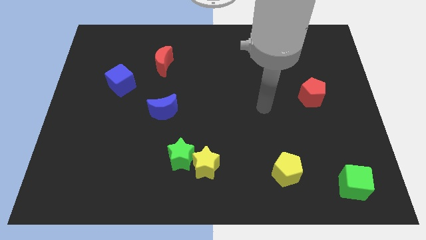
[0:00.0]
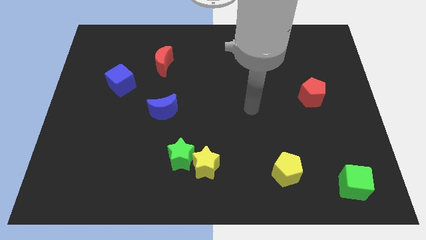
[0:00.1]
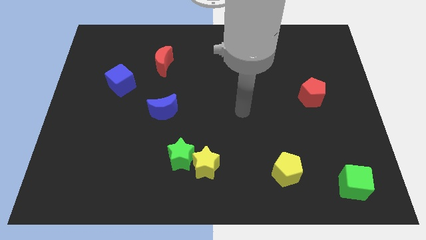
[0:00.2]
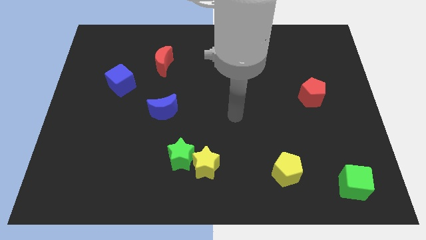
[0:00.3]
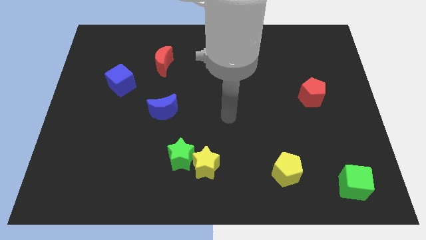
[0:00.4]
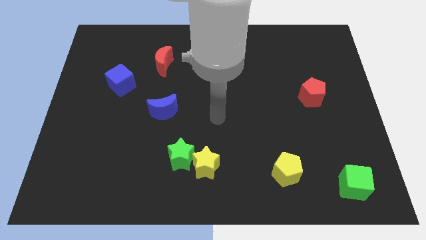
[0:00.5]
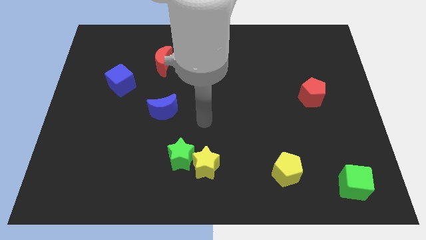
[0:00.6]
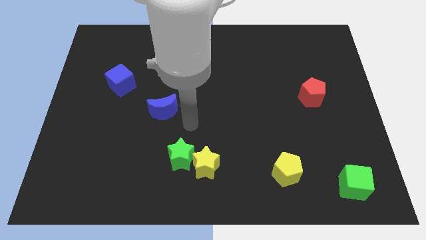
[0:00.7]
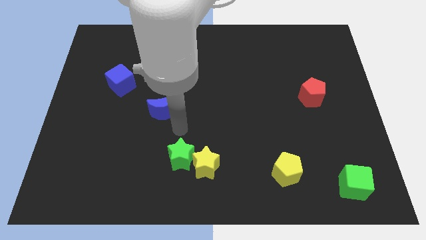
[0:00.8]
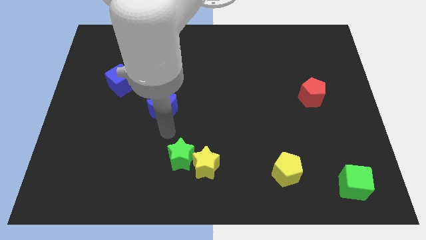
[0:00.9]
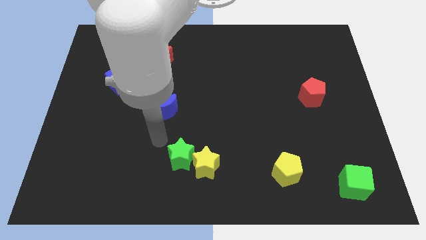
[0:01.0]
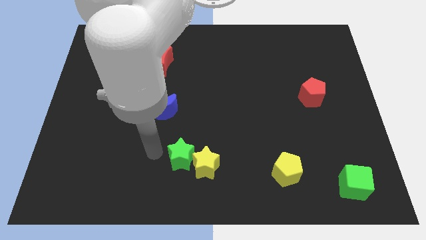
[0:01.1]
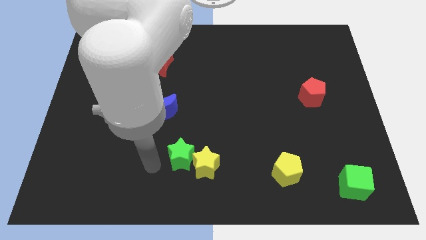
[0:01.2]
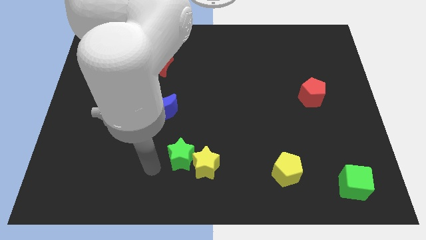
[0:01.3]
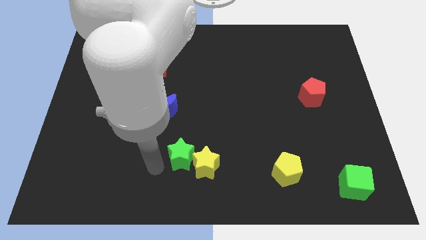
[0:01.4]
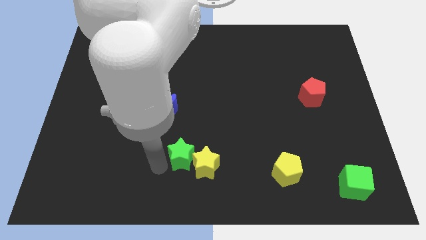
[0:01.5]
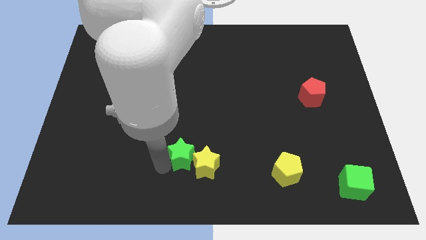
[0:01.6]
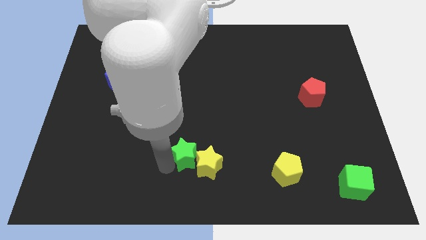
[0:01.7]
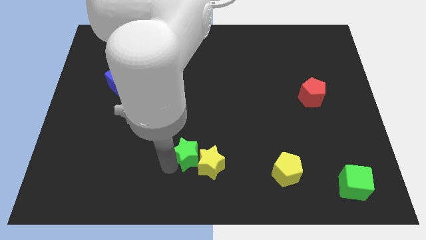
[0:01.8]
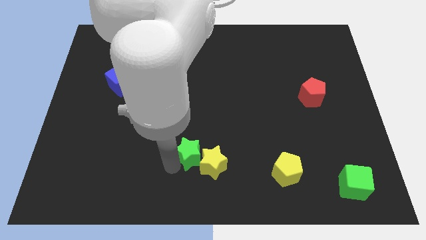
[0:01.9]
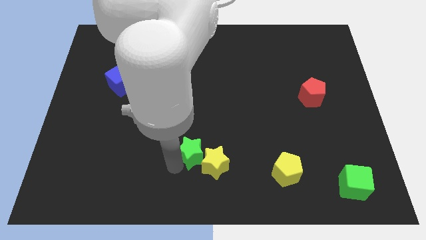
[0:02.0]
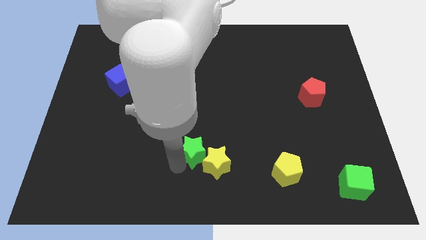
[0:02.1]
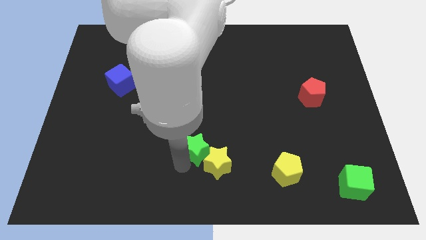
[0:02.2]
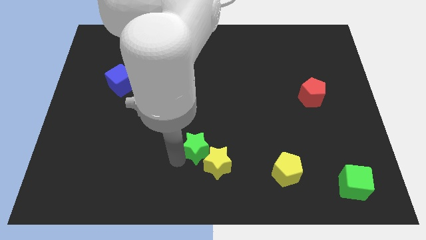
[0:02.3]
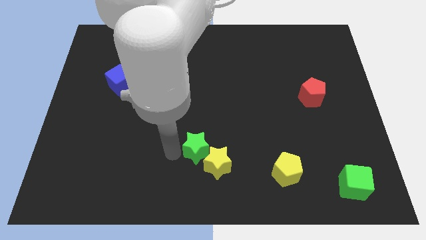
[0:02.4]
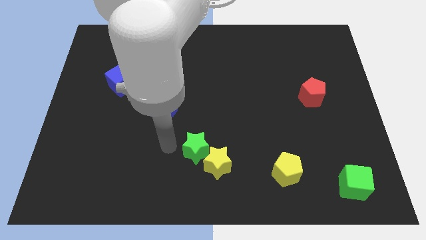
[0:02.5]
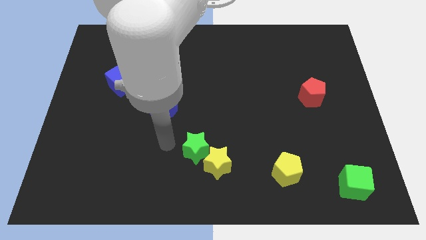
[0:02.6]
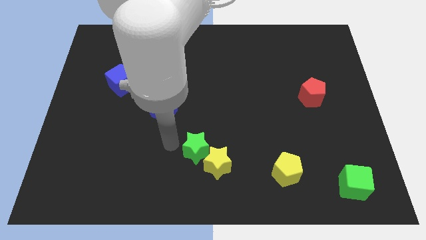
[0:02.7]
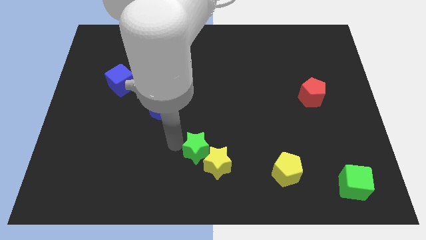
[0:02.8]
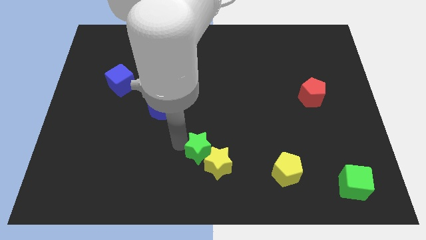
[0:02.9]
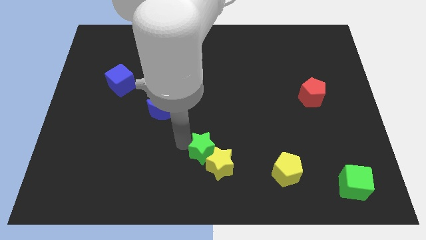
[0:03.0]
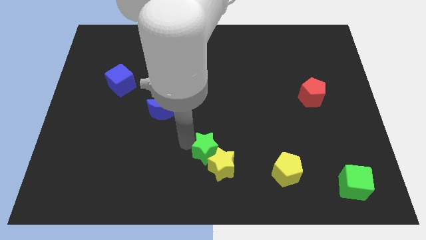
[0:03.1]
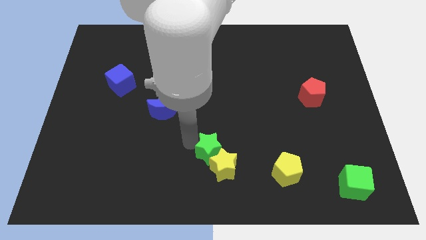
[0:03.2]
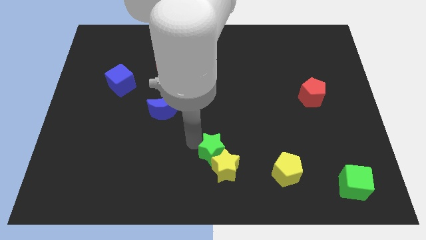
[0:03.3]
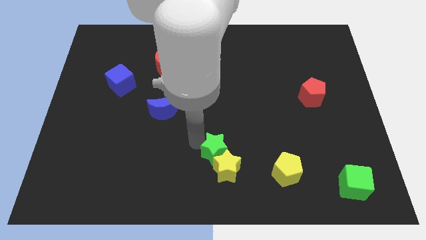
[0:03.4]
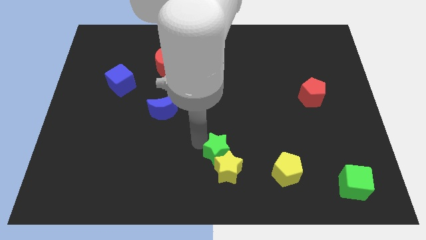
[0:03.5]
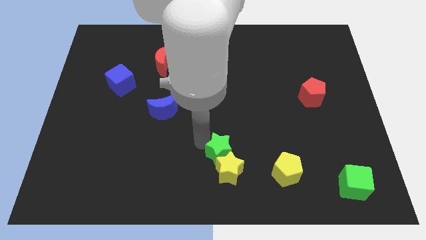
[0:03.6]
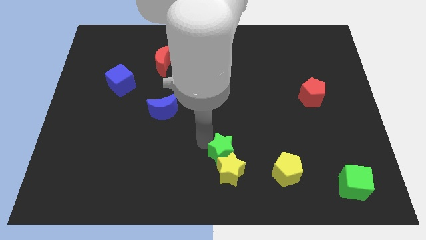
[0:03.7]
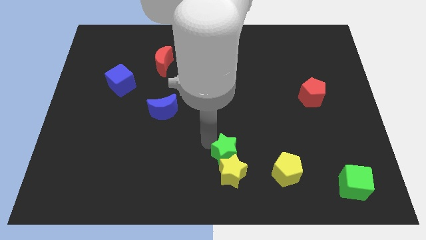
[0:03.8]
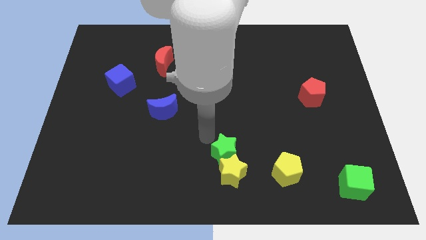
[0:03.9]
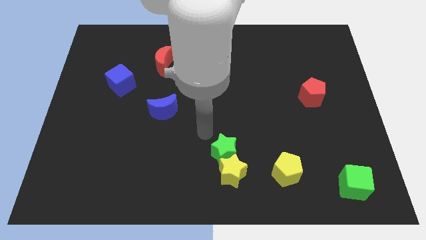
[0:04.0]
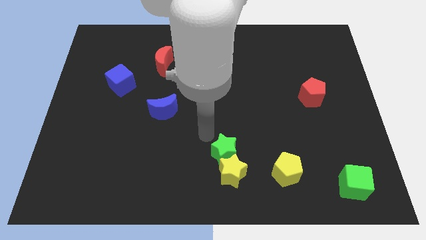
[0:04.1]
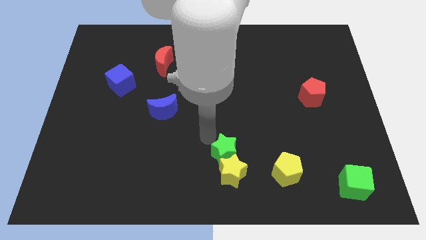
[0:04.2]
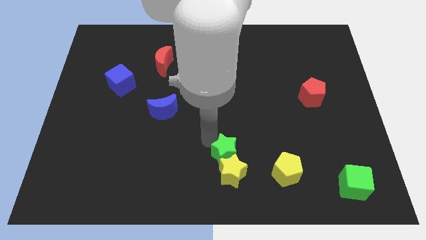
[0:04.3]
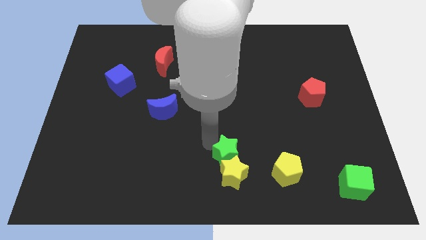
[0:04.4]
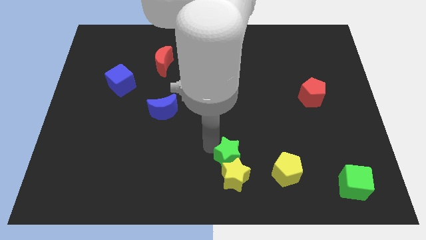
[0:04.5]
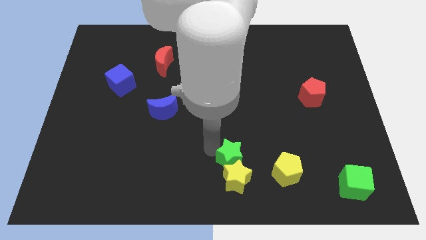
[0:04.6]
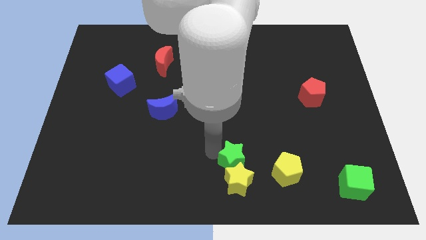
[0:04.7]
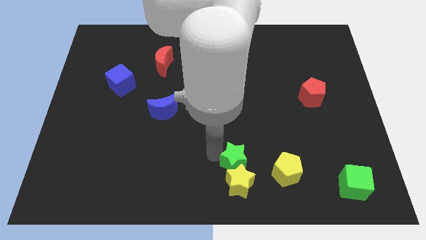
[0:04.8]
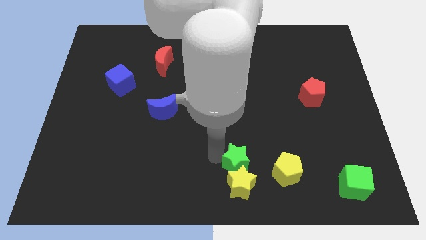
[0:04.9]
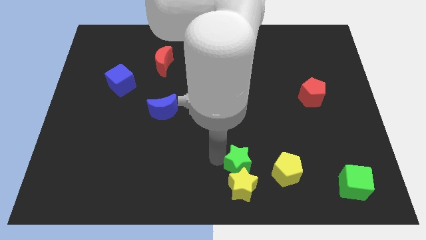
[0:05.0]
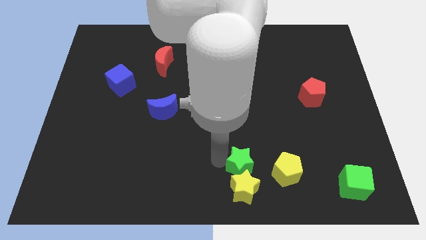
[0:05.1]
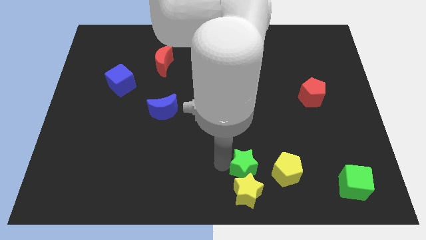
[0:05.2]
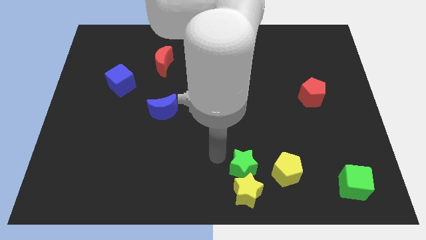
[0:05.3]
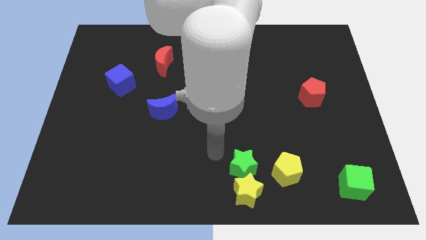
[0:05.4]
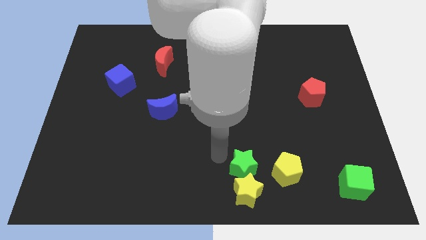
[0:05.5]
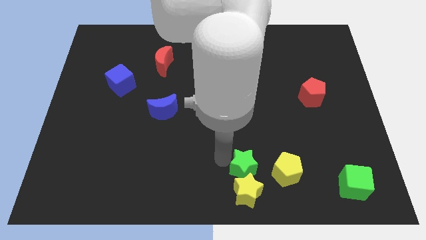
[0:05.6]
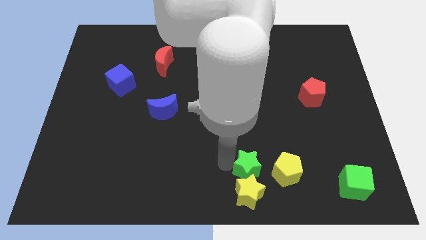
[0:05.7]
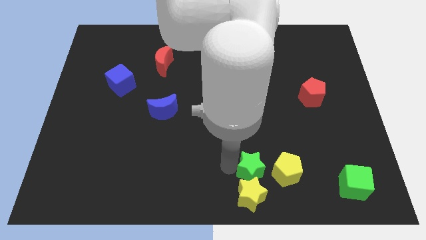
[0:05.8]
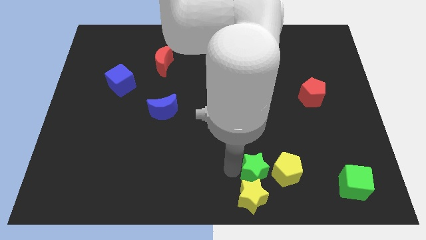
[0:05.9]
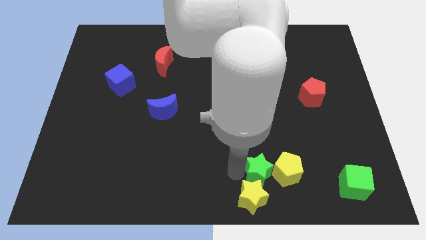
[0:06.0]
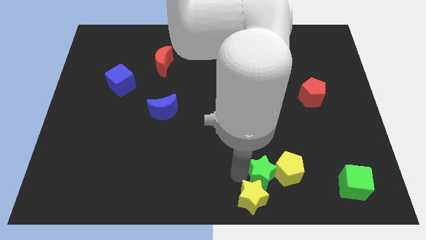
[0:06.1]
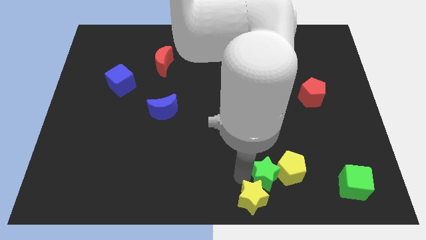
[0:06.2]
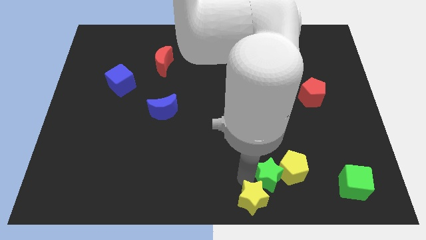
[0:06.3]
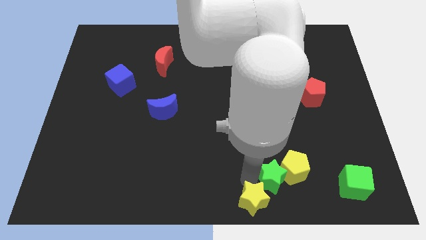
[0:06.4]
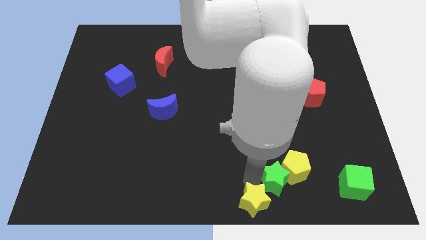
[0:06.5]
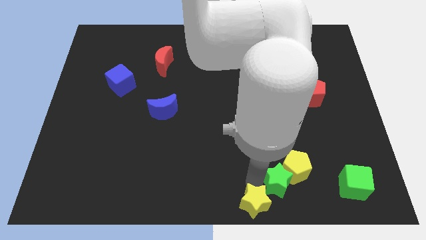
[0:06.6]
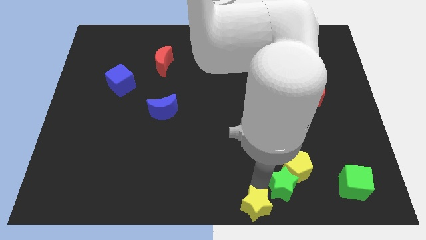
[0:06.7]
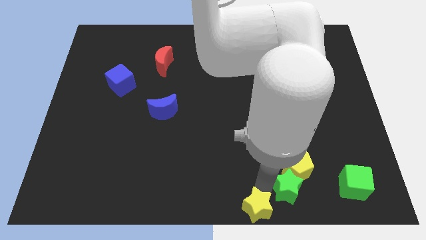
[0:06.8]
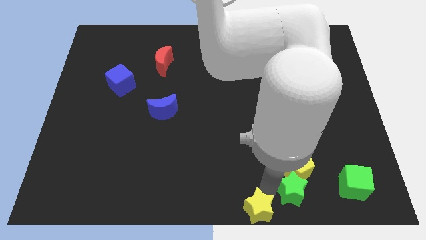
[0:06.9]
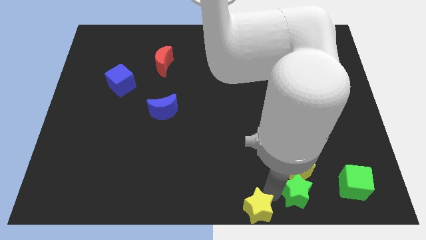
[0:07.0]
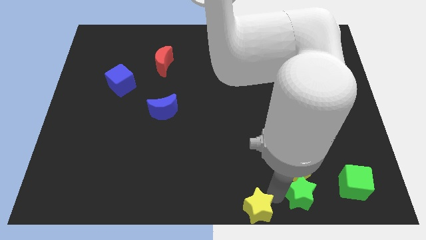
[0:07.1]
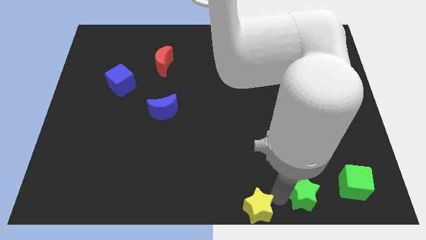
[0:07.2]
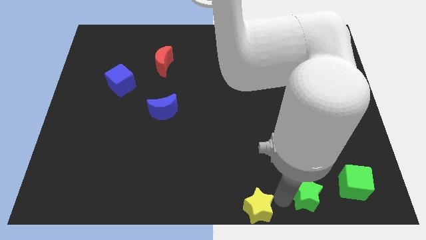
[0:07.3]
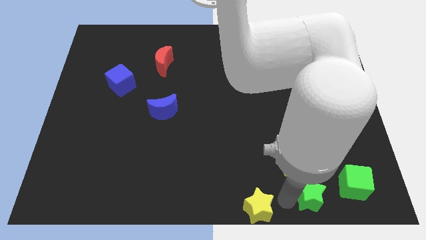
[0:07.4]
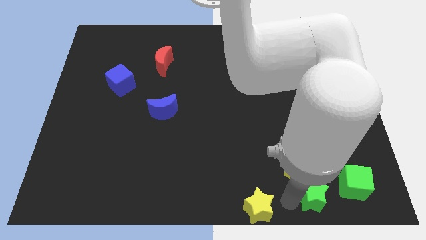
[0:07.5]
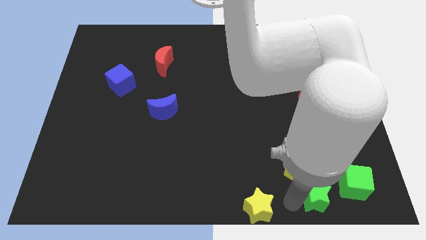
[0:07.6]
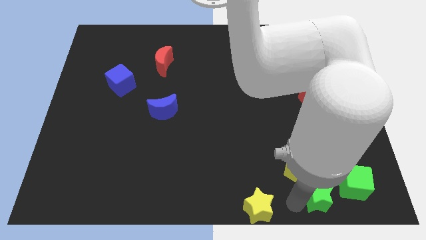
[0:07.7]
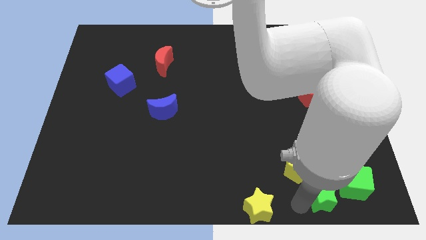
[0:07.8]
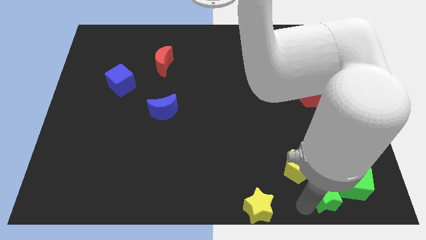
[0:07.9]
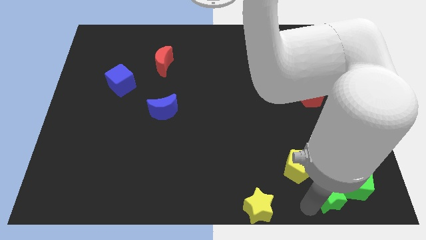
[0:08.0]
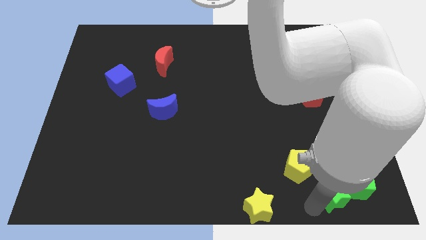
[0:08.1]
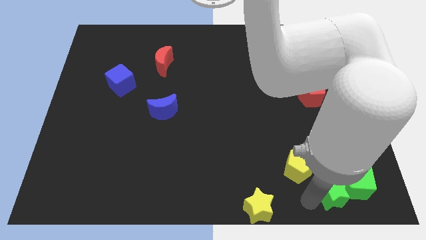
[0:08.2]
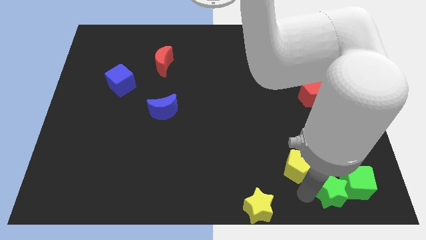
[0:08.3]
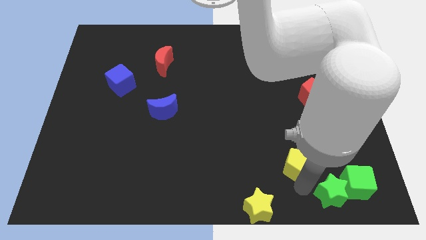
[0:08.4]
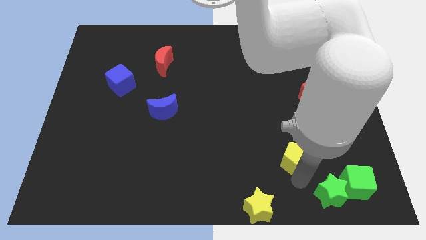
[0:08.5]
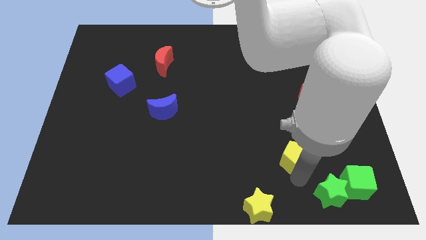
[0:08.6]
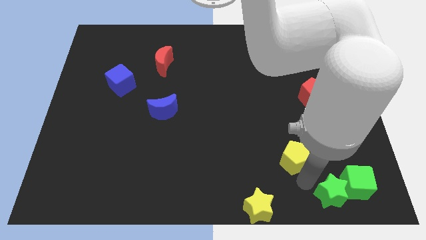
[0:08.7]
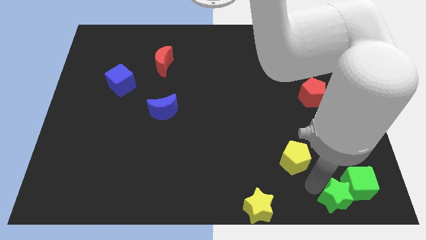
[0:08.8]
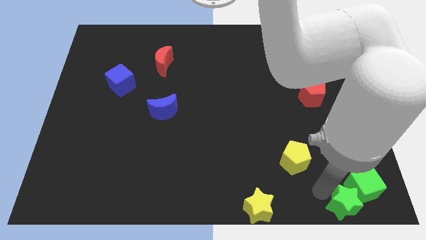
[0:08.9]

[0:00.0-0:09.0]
push the green star to the lower right corner
